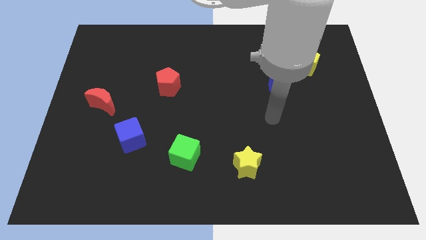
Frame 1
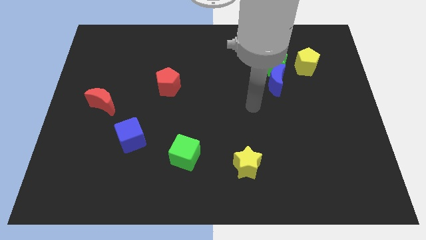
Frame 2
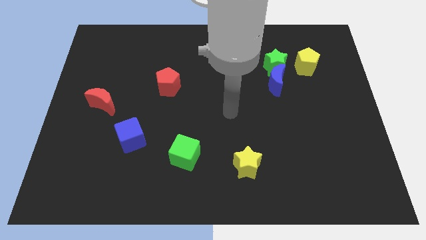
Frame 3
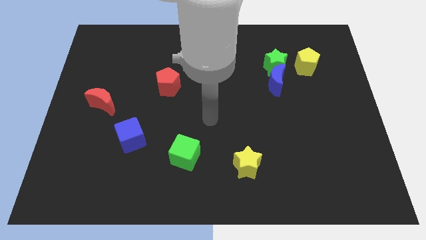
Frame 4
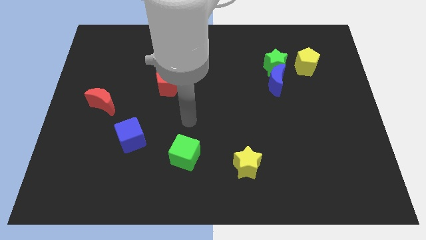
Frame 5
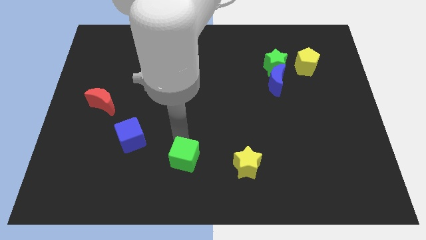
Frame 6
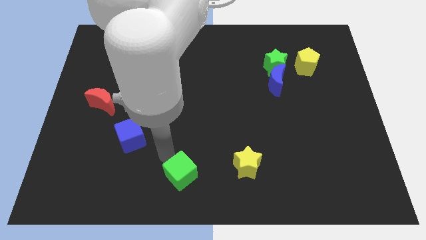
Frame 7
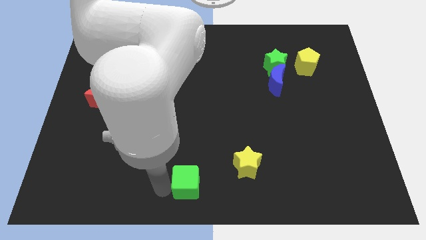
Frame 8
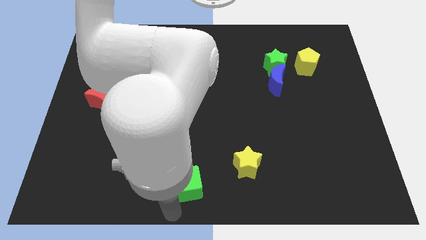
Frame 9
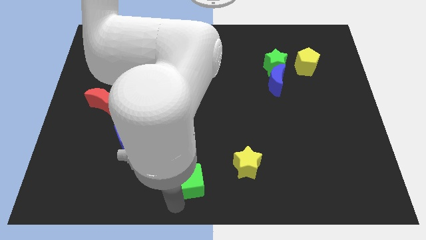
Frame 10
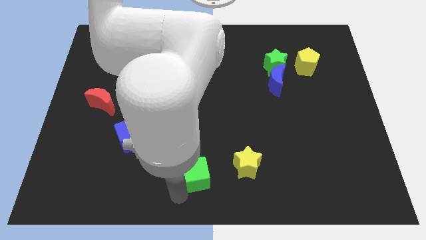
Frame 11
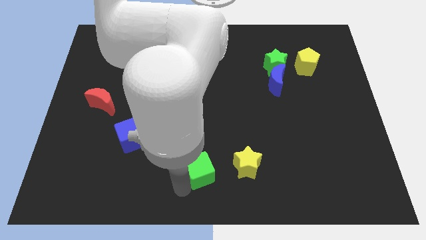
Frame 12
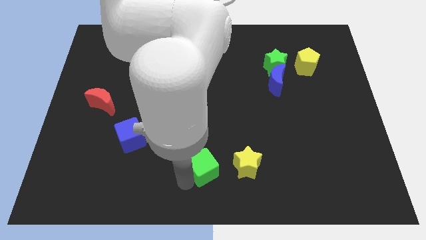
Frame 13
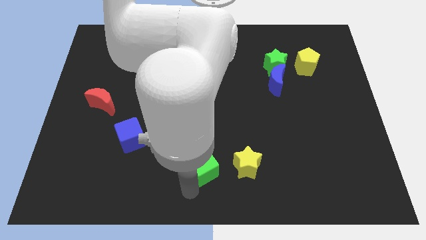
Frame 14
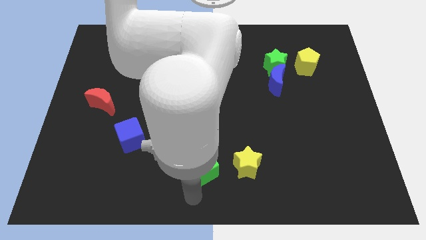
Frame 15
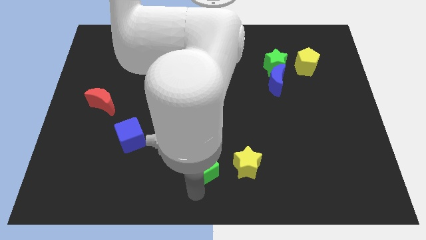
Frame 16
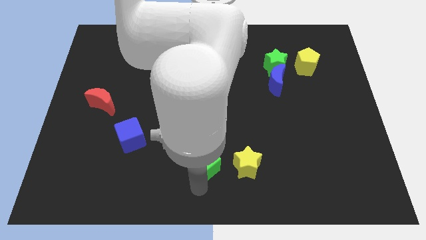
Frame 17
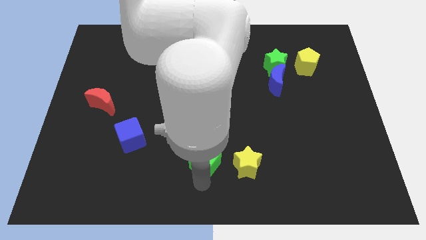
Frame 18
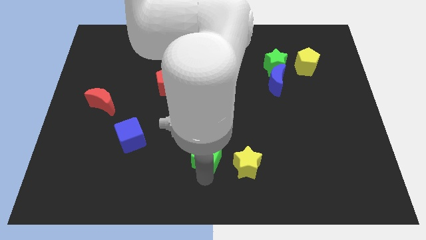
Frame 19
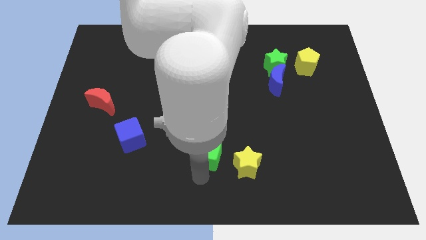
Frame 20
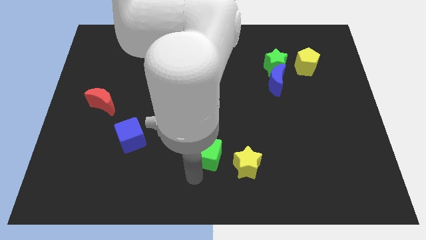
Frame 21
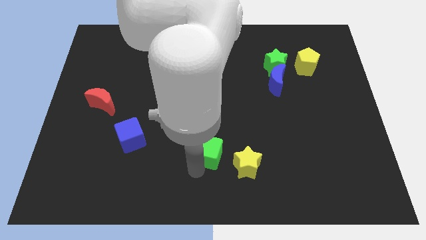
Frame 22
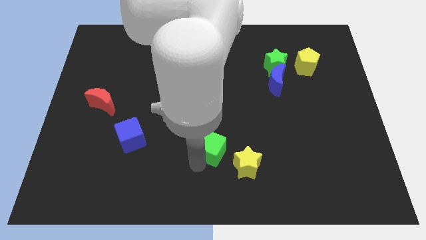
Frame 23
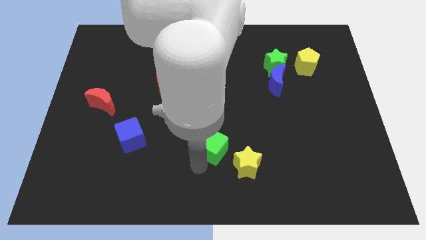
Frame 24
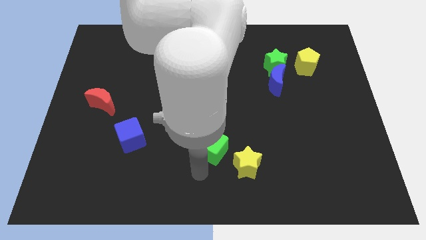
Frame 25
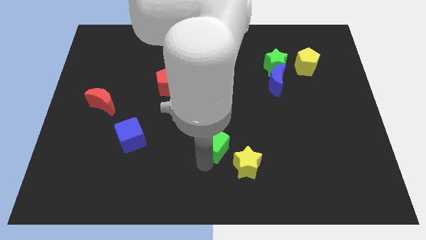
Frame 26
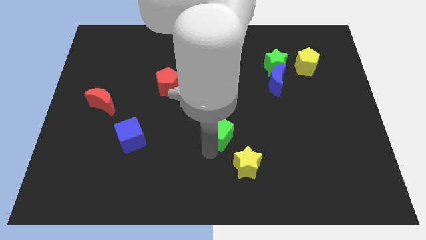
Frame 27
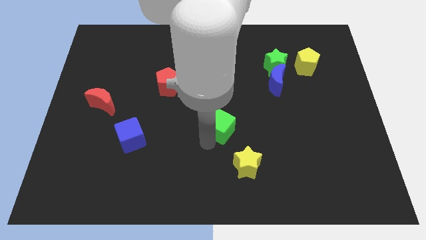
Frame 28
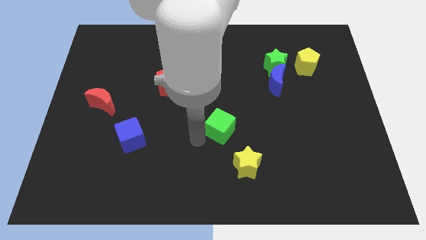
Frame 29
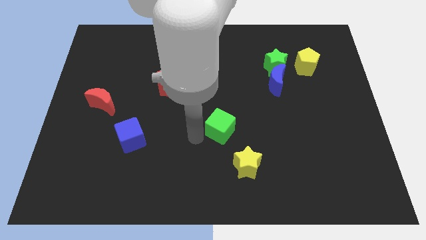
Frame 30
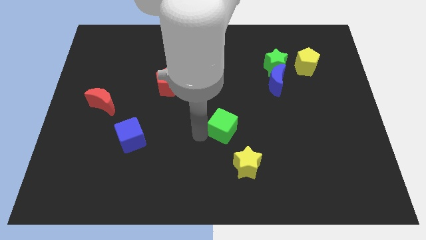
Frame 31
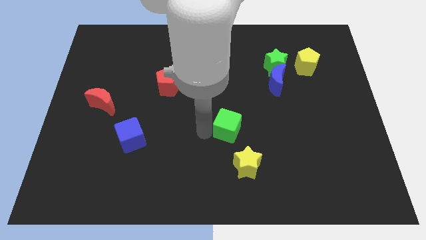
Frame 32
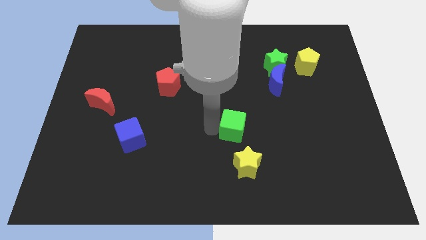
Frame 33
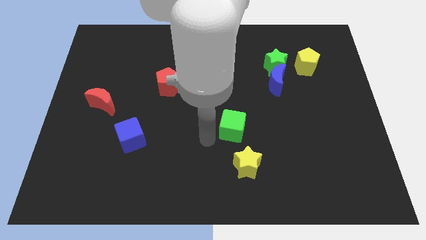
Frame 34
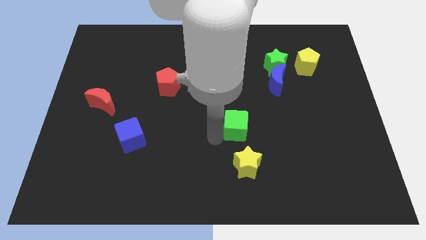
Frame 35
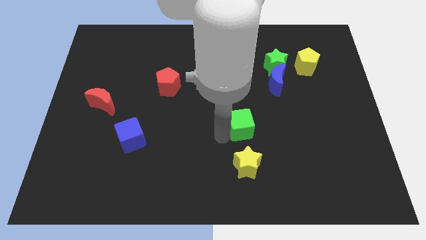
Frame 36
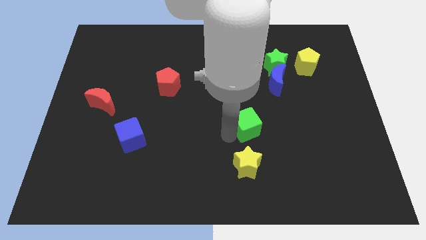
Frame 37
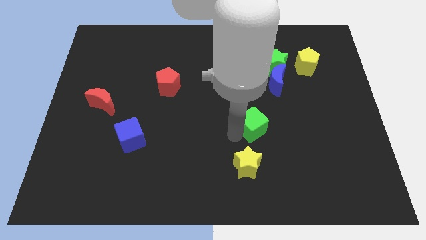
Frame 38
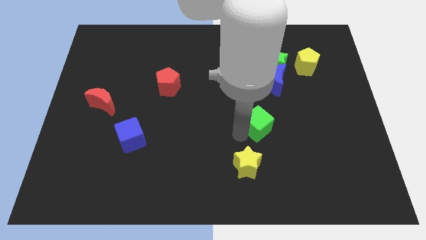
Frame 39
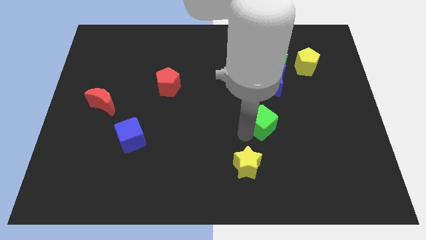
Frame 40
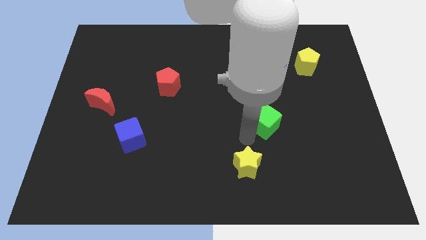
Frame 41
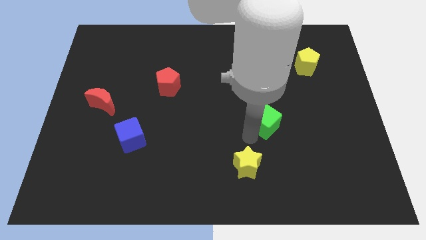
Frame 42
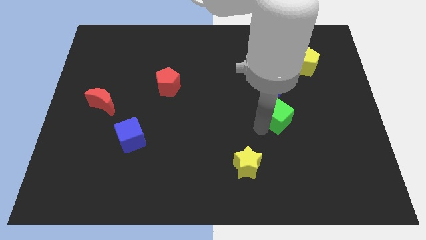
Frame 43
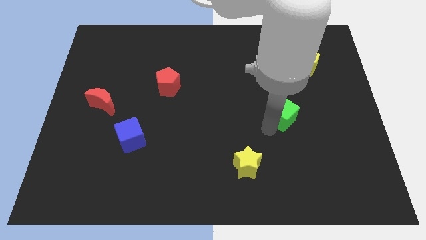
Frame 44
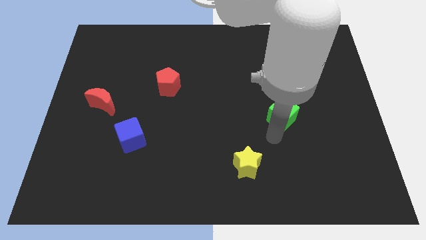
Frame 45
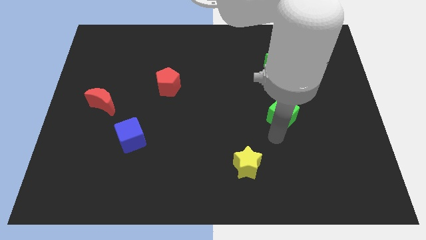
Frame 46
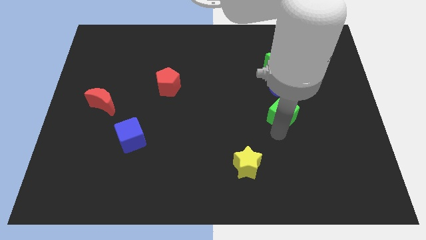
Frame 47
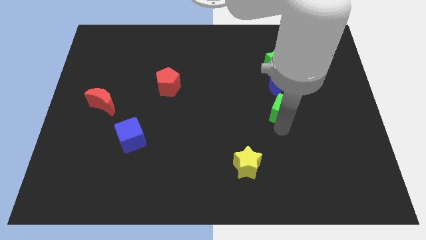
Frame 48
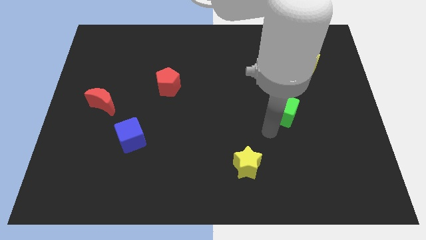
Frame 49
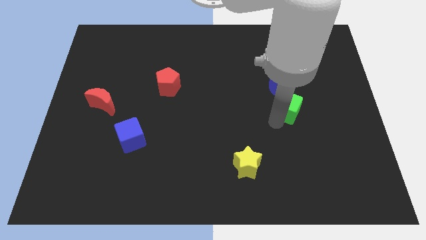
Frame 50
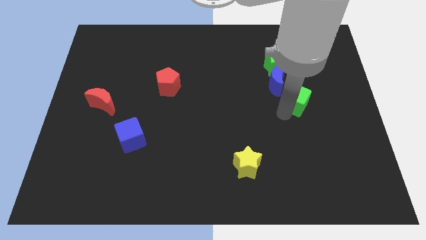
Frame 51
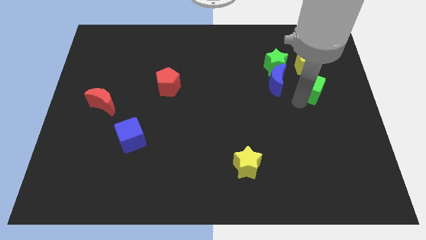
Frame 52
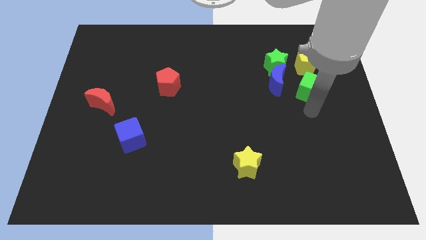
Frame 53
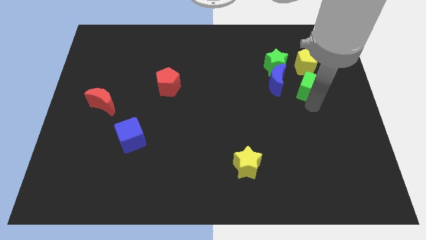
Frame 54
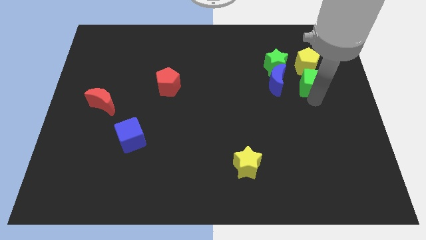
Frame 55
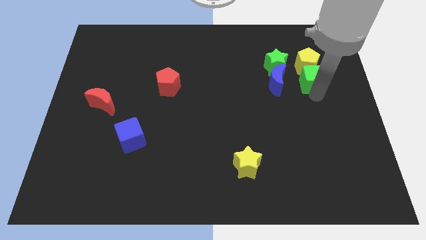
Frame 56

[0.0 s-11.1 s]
put the green cube next to the yellow pentagon

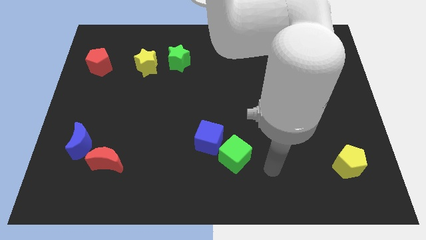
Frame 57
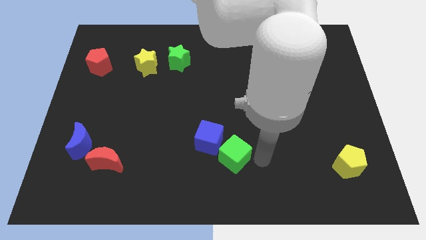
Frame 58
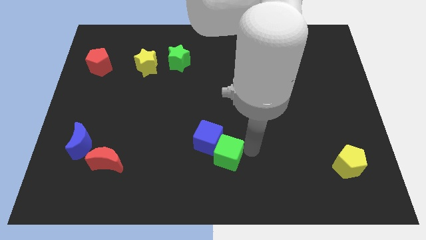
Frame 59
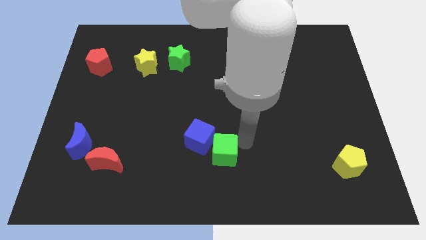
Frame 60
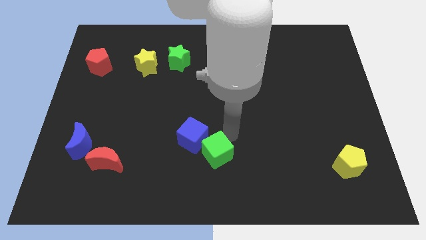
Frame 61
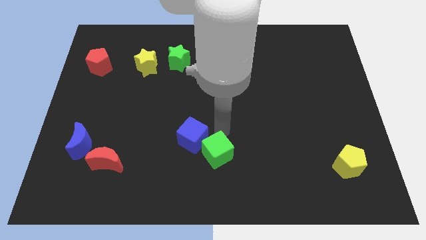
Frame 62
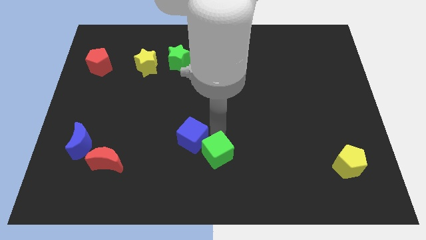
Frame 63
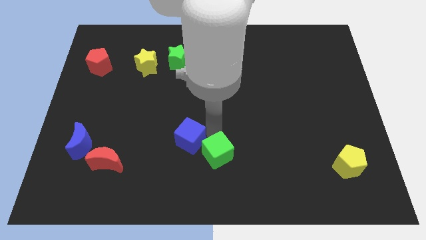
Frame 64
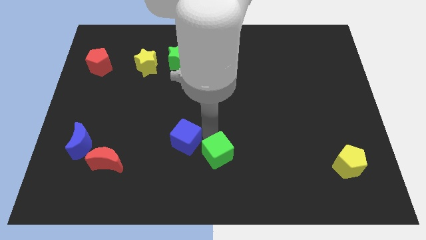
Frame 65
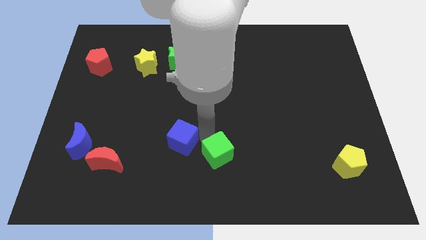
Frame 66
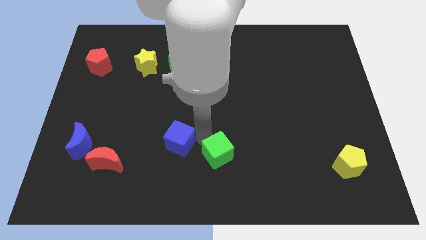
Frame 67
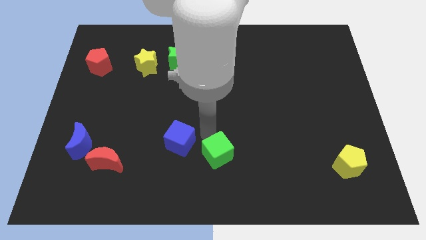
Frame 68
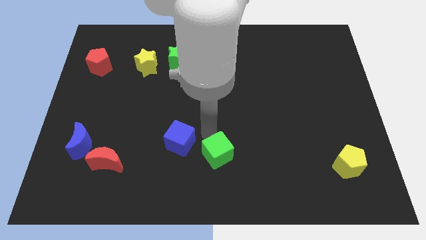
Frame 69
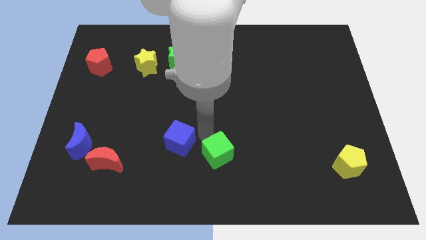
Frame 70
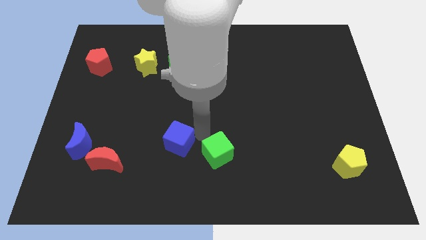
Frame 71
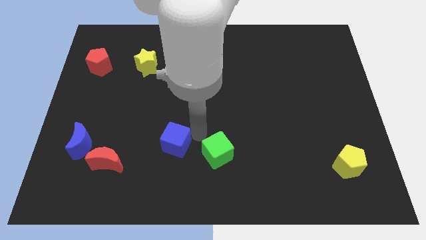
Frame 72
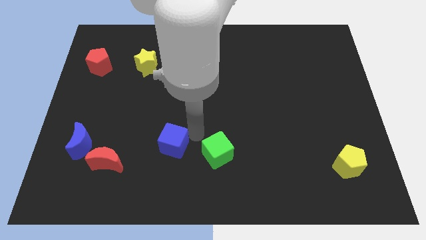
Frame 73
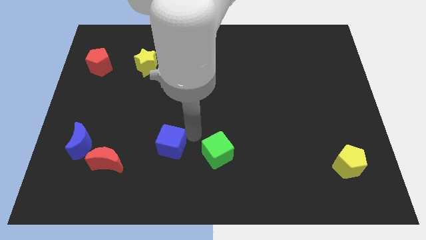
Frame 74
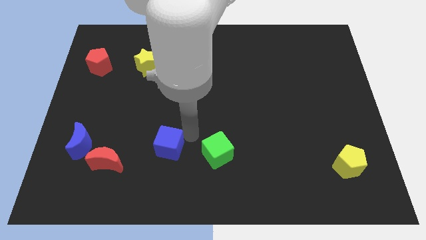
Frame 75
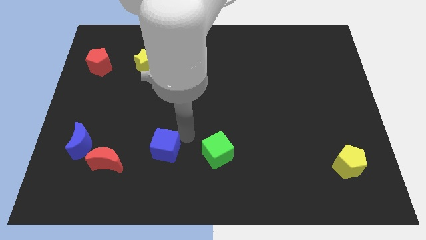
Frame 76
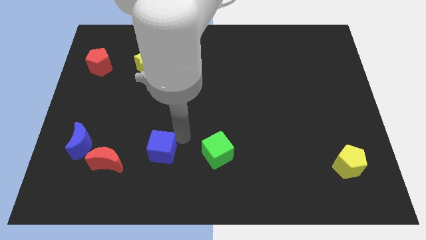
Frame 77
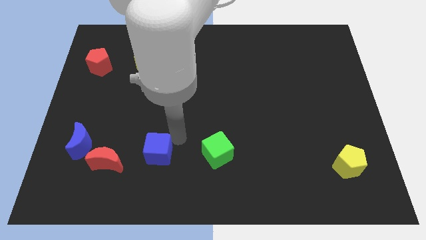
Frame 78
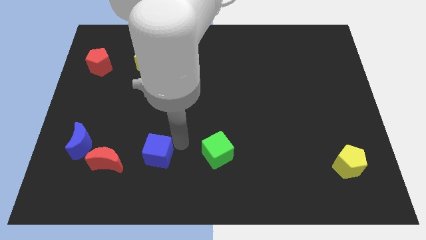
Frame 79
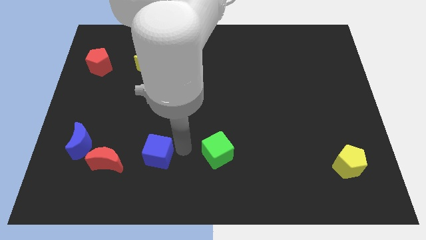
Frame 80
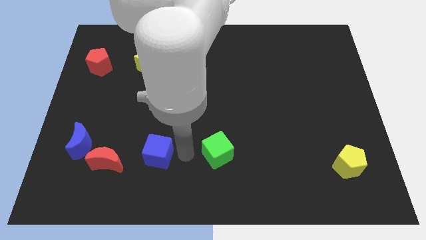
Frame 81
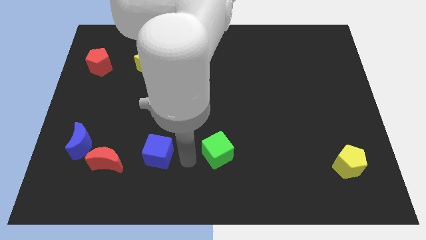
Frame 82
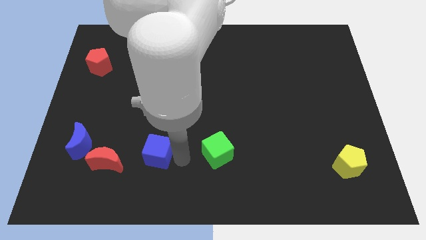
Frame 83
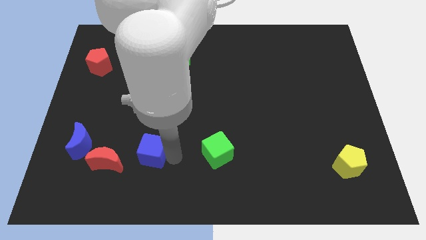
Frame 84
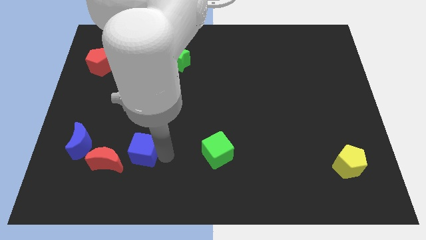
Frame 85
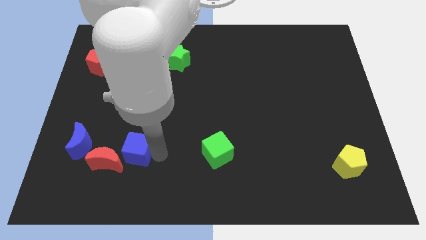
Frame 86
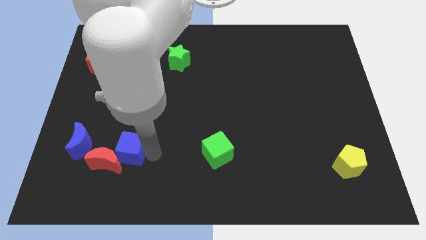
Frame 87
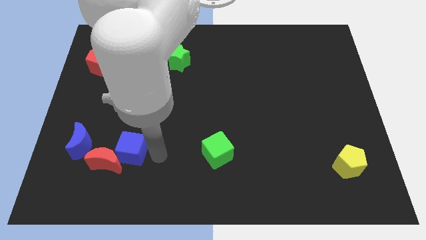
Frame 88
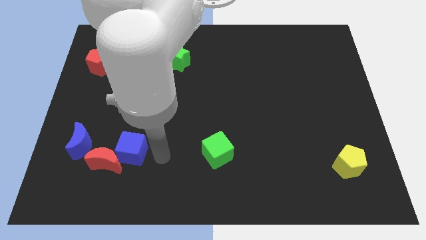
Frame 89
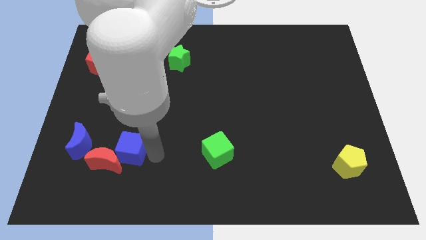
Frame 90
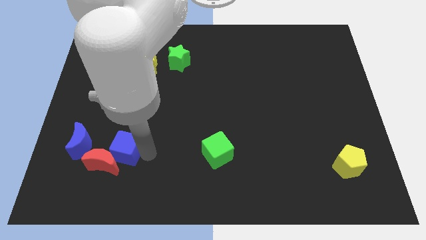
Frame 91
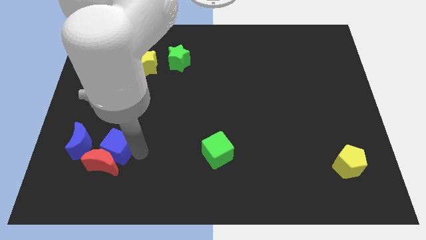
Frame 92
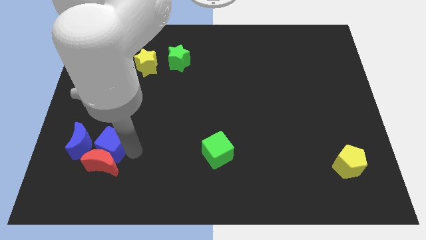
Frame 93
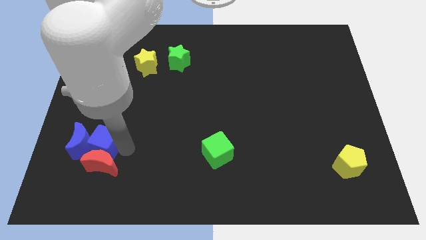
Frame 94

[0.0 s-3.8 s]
slide the blue cube next to the blue moon
